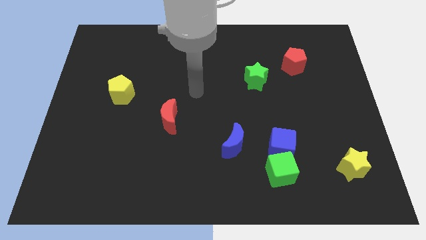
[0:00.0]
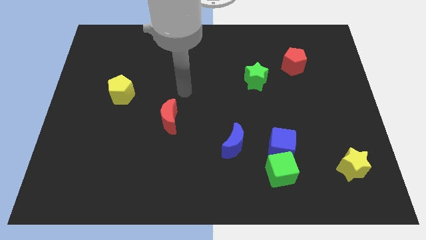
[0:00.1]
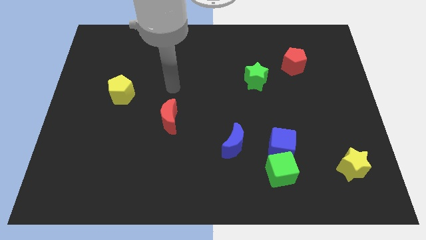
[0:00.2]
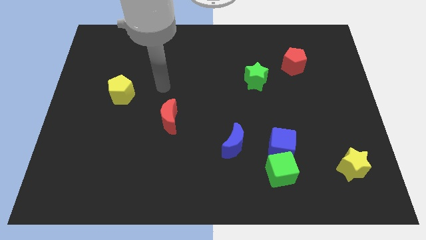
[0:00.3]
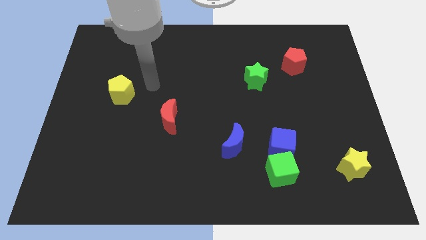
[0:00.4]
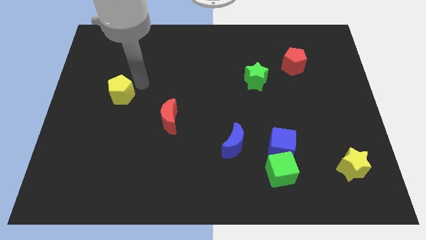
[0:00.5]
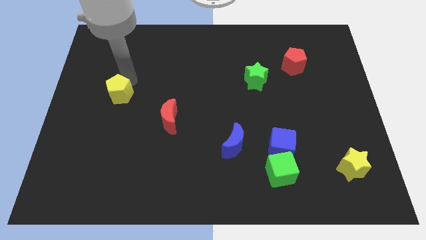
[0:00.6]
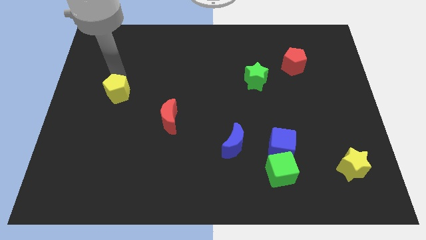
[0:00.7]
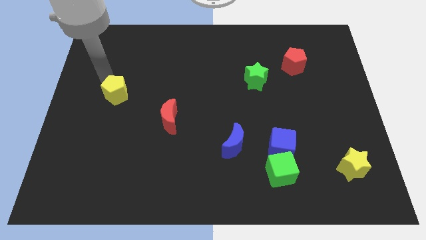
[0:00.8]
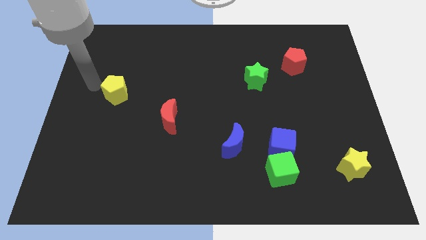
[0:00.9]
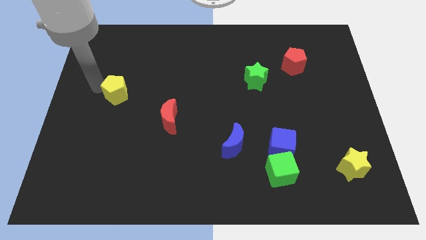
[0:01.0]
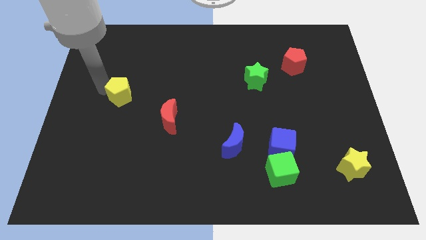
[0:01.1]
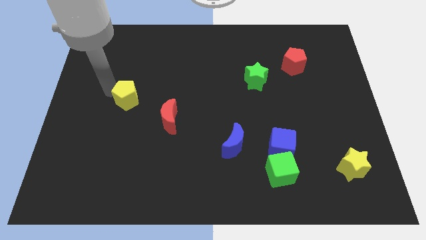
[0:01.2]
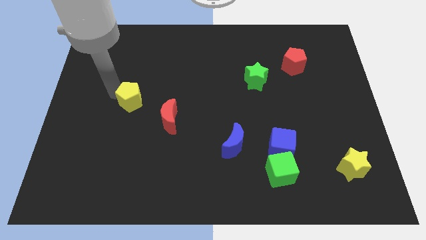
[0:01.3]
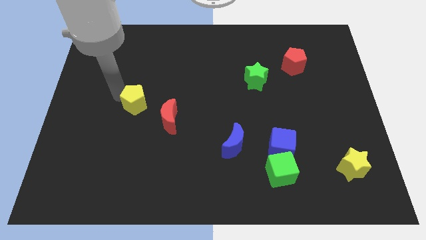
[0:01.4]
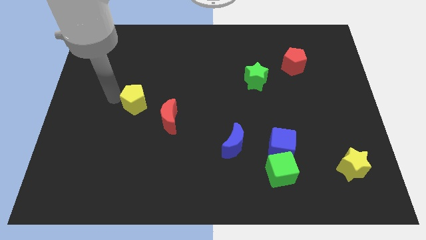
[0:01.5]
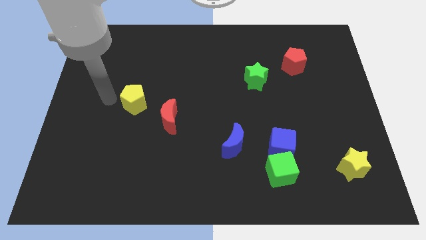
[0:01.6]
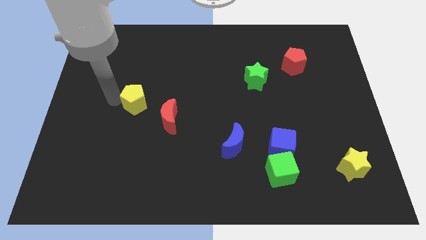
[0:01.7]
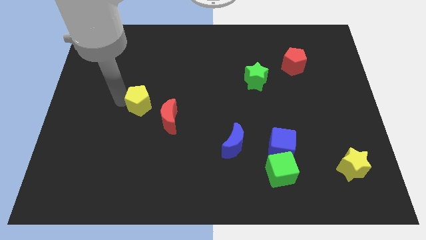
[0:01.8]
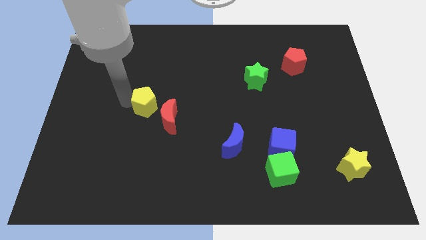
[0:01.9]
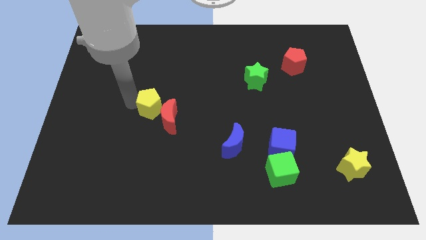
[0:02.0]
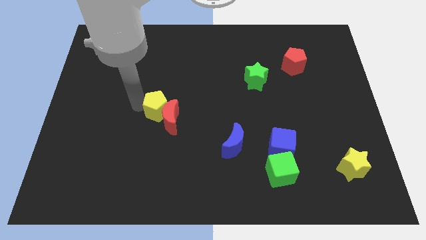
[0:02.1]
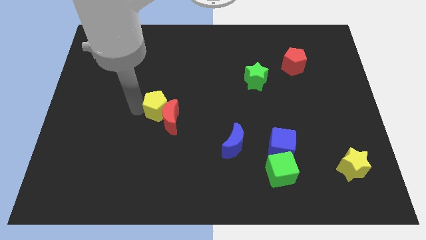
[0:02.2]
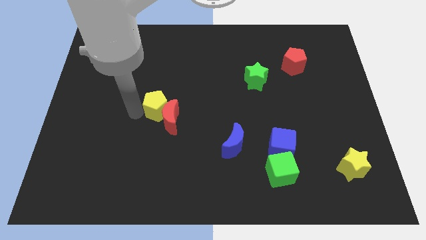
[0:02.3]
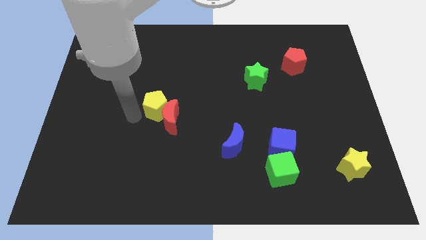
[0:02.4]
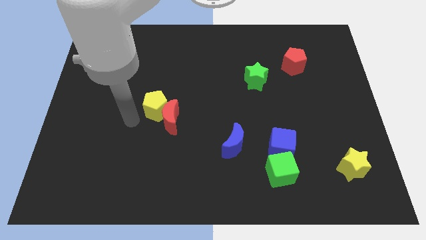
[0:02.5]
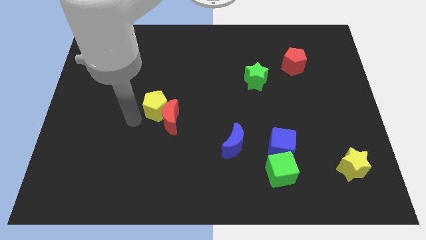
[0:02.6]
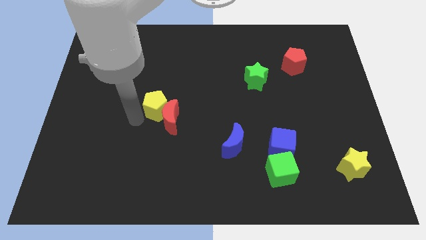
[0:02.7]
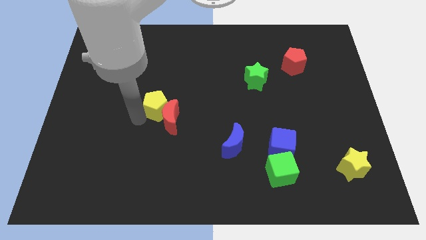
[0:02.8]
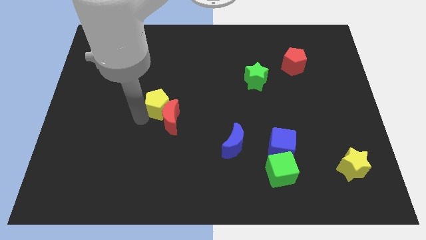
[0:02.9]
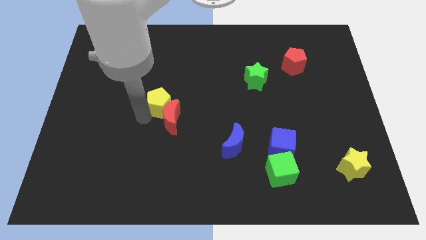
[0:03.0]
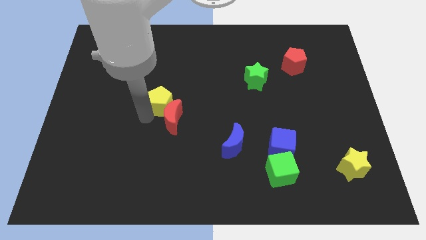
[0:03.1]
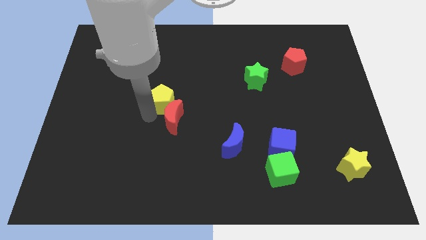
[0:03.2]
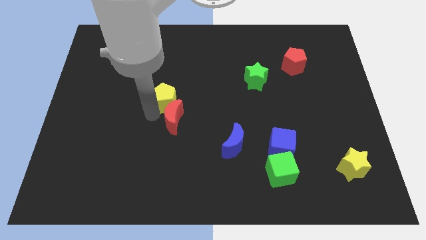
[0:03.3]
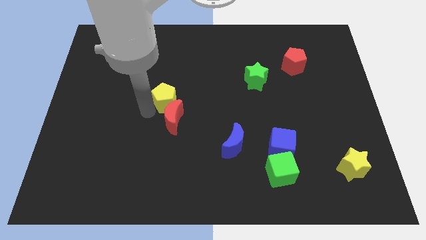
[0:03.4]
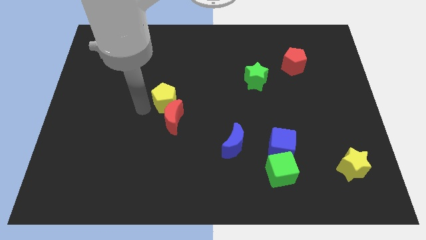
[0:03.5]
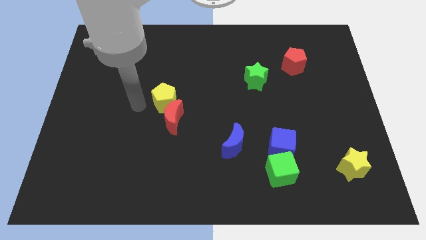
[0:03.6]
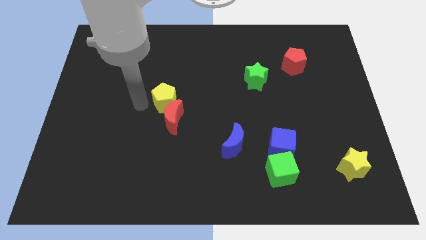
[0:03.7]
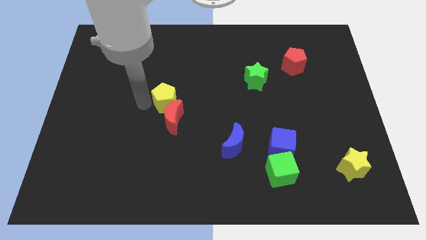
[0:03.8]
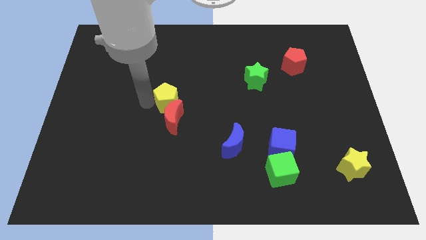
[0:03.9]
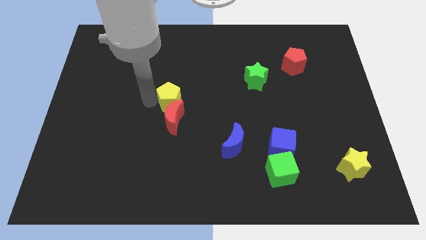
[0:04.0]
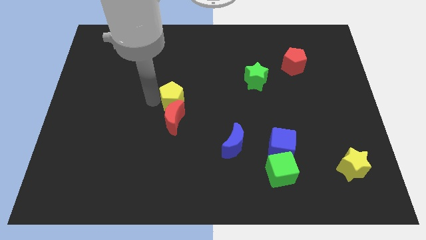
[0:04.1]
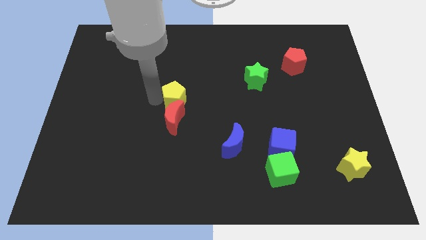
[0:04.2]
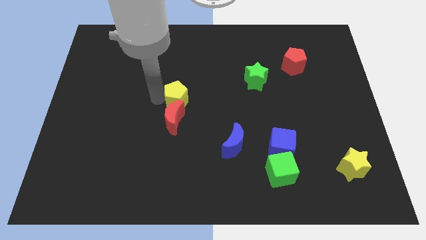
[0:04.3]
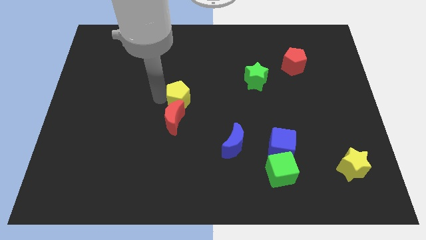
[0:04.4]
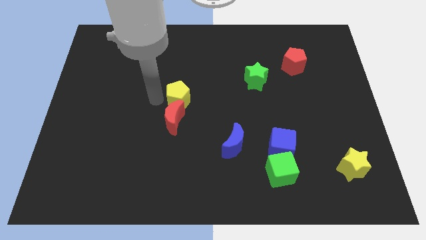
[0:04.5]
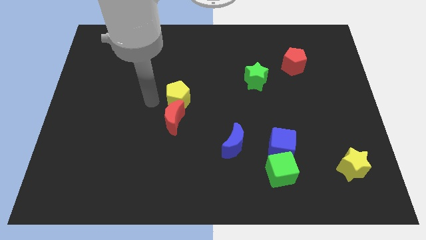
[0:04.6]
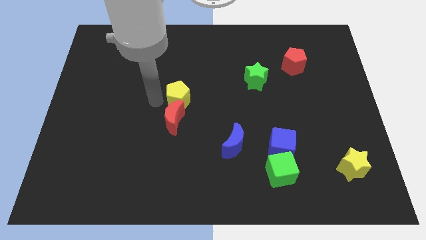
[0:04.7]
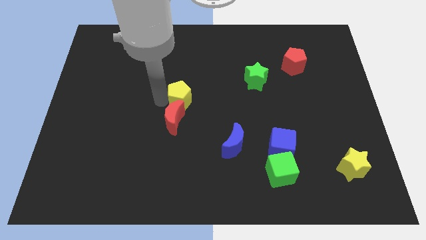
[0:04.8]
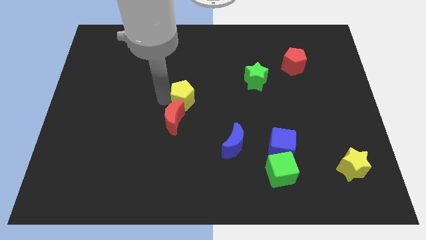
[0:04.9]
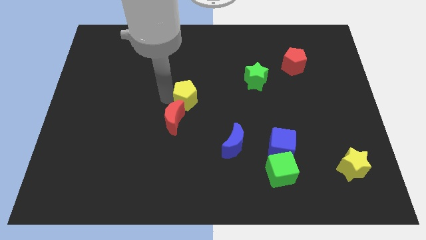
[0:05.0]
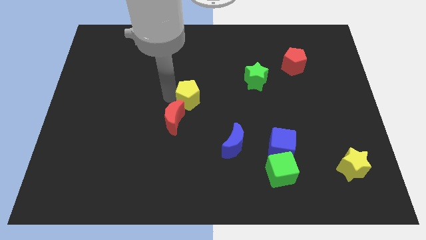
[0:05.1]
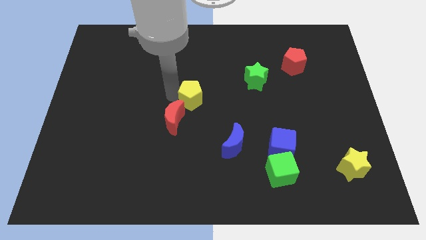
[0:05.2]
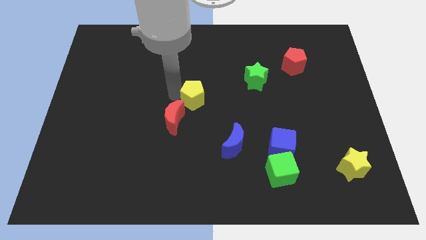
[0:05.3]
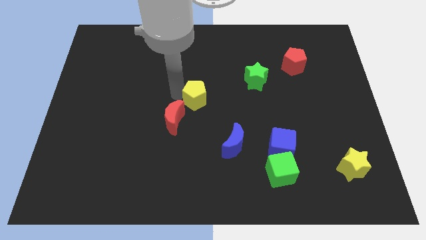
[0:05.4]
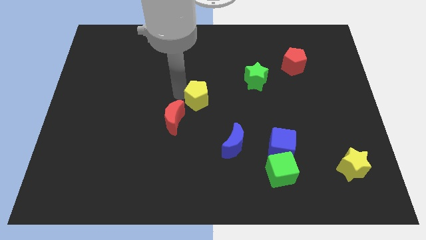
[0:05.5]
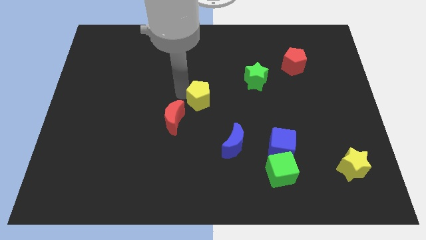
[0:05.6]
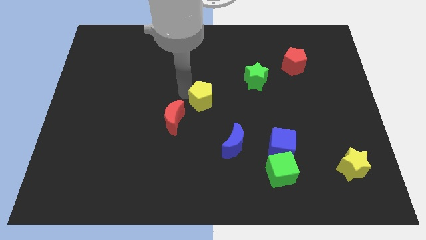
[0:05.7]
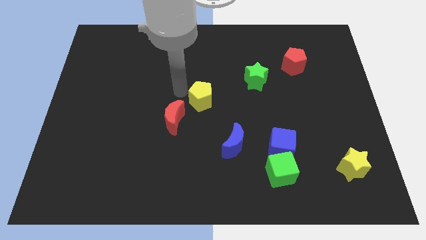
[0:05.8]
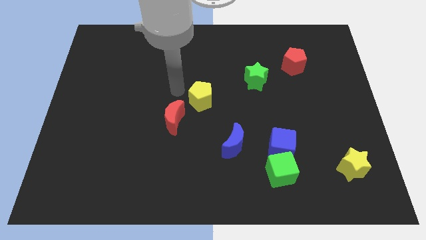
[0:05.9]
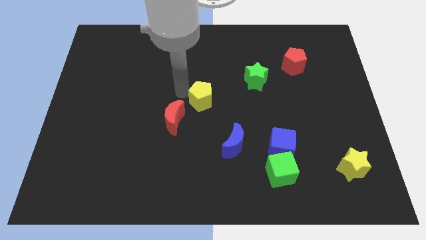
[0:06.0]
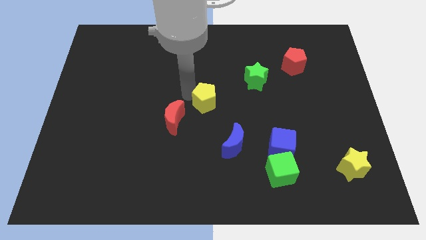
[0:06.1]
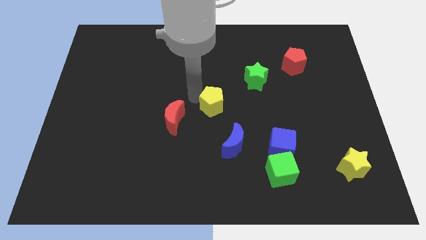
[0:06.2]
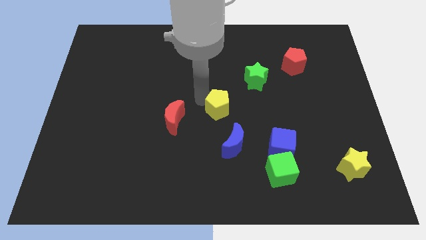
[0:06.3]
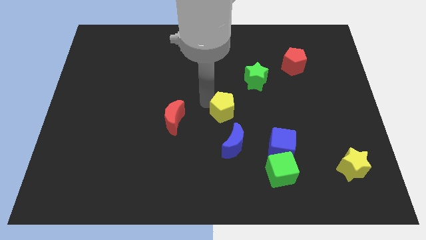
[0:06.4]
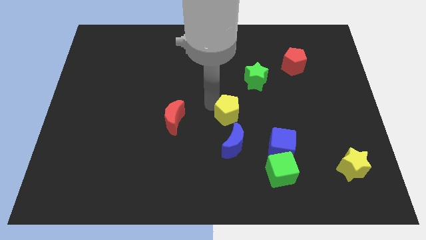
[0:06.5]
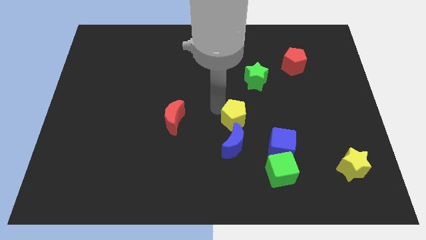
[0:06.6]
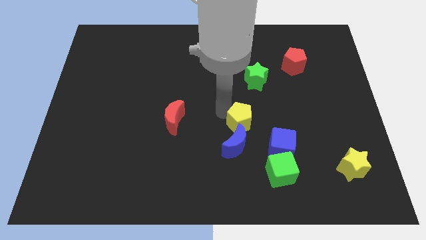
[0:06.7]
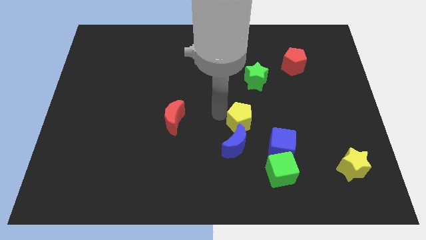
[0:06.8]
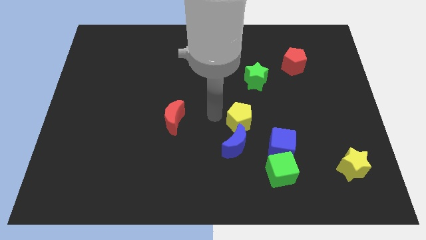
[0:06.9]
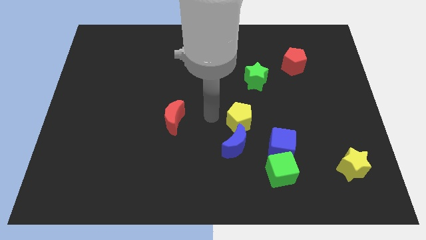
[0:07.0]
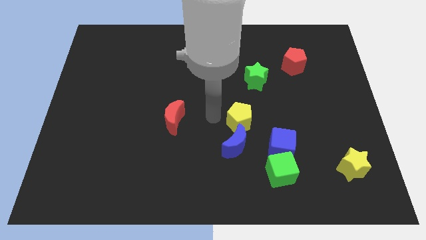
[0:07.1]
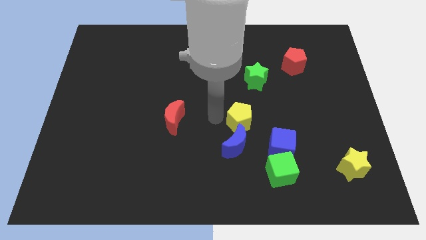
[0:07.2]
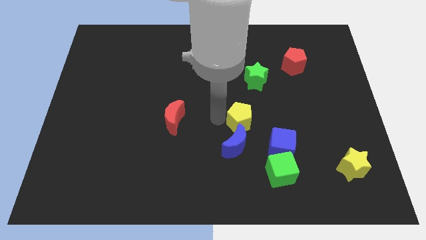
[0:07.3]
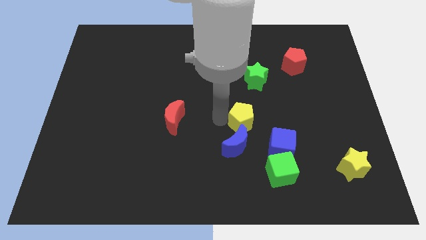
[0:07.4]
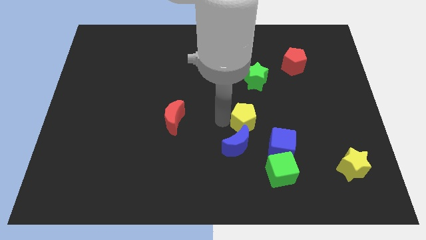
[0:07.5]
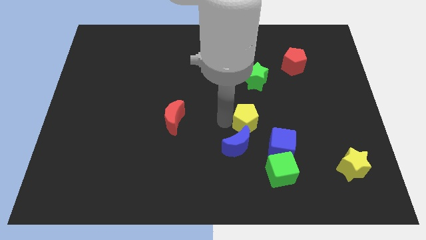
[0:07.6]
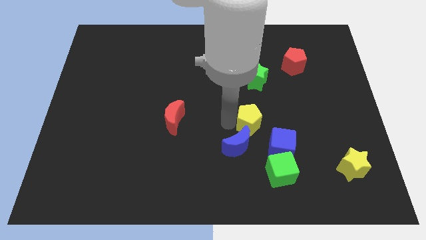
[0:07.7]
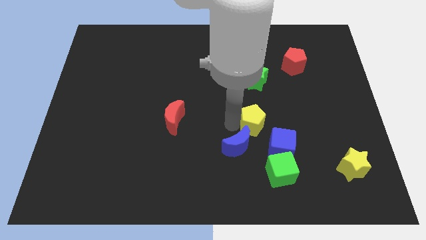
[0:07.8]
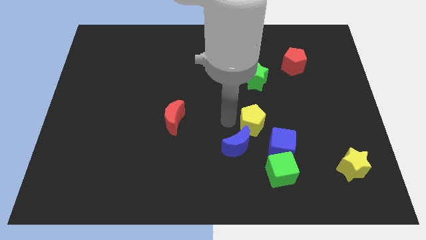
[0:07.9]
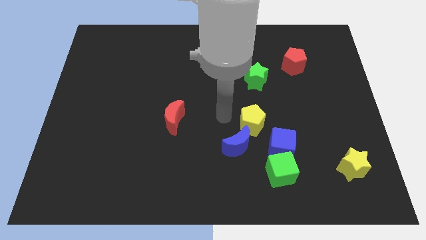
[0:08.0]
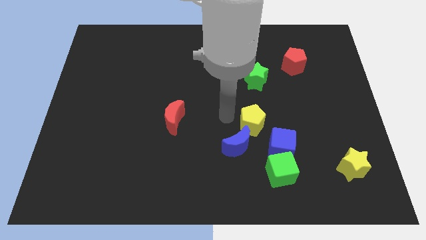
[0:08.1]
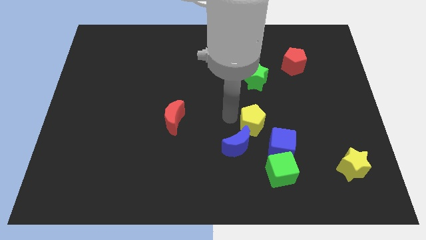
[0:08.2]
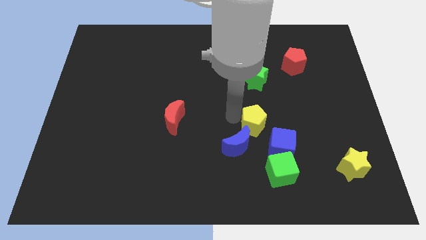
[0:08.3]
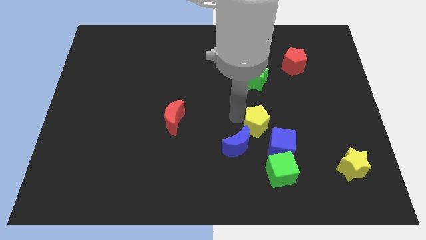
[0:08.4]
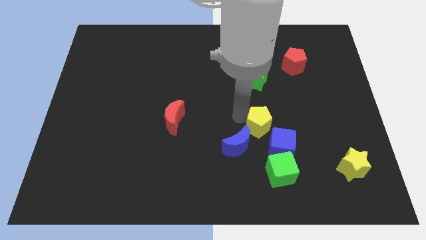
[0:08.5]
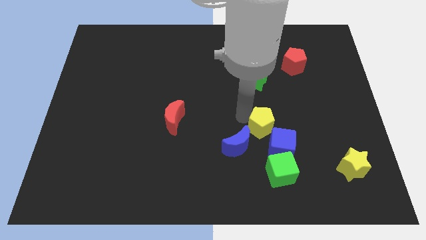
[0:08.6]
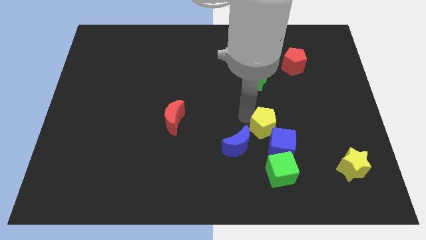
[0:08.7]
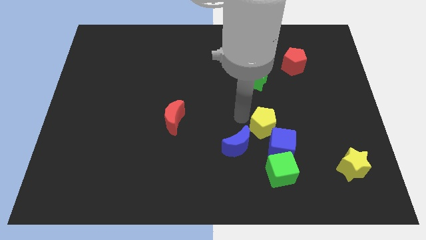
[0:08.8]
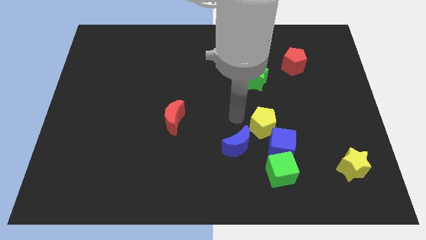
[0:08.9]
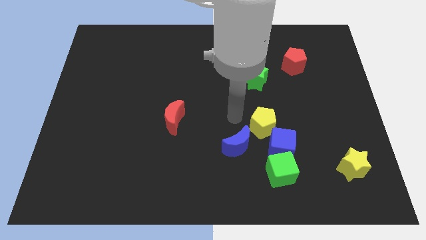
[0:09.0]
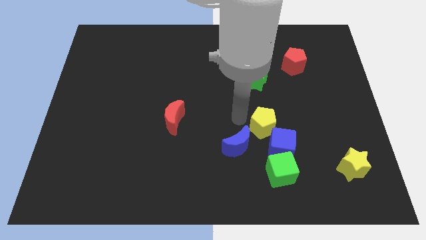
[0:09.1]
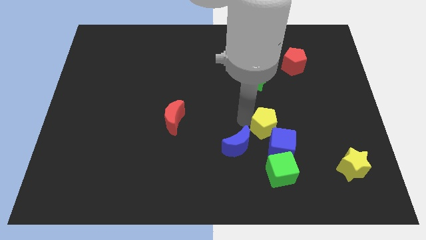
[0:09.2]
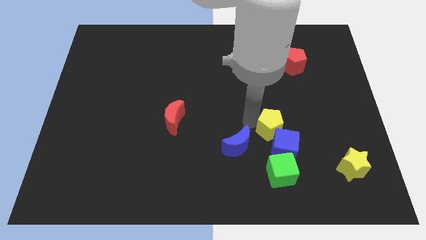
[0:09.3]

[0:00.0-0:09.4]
put the yellow pentagon right of the blue moon
